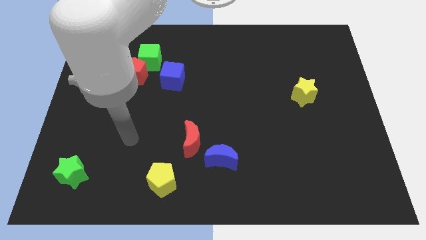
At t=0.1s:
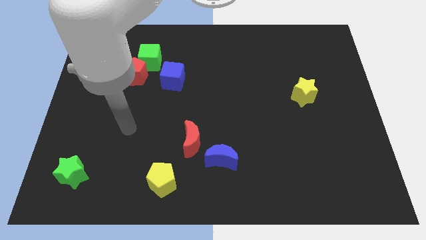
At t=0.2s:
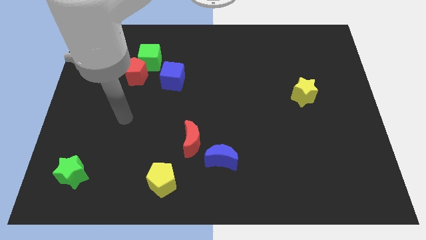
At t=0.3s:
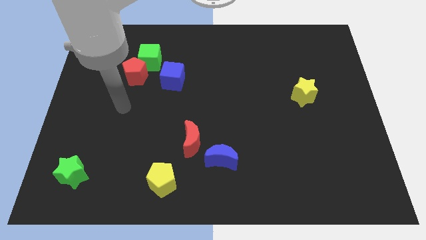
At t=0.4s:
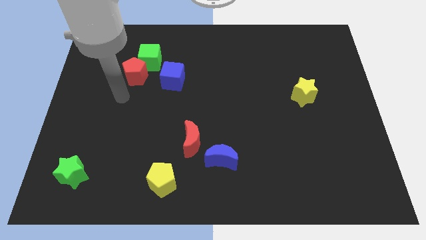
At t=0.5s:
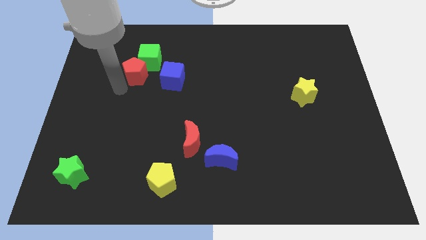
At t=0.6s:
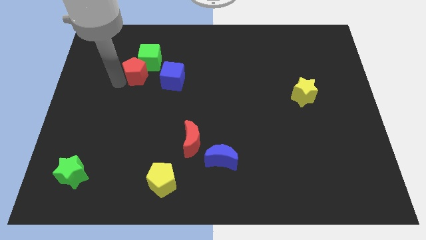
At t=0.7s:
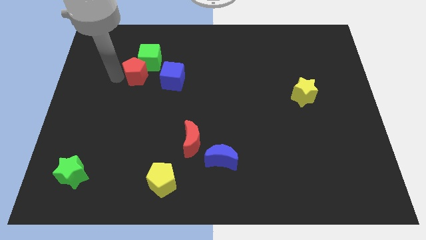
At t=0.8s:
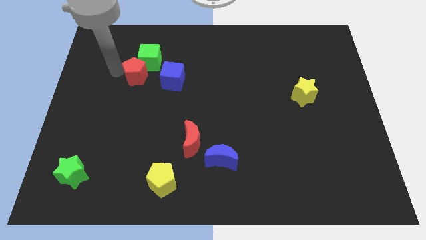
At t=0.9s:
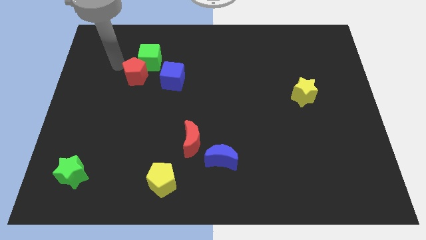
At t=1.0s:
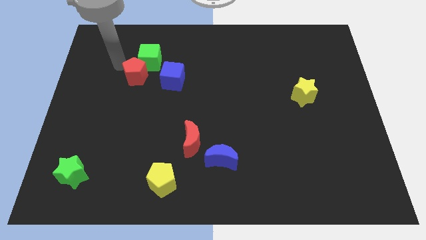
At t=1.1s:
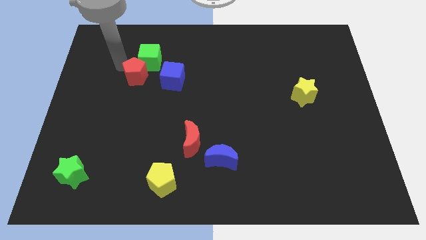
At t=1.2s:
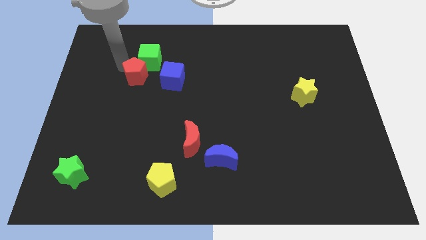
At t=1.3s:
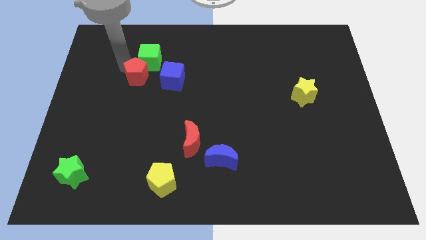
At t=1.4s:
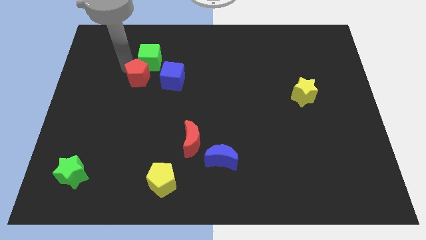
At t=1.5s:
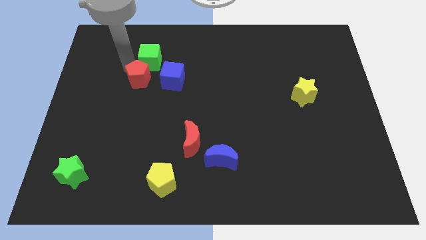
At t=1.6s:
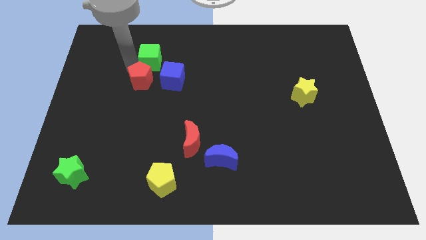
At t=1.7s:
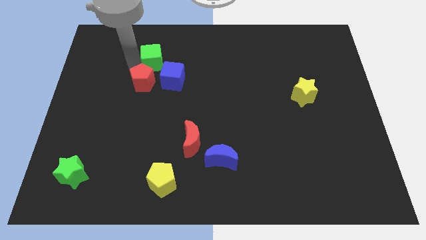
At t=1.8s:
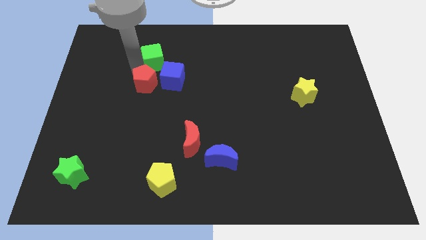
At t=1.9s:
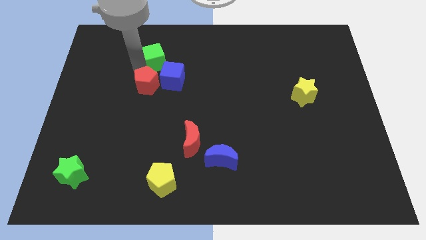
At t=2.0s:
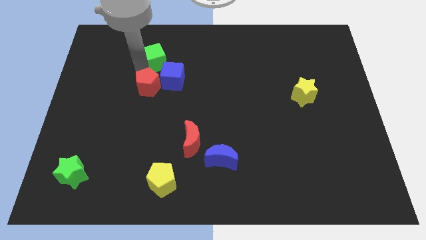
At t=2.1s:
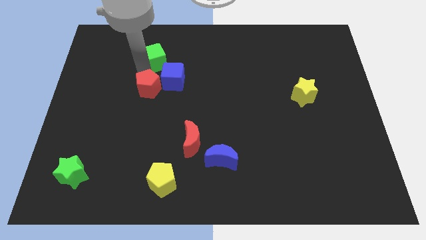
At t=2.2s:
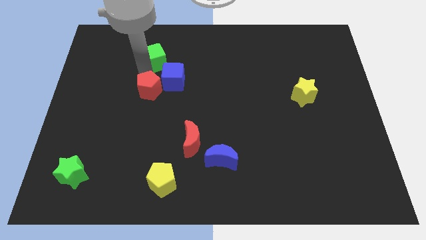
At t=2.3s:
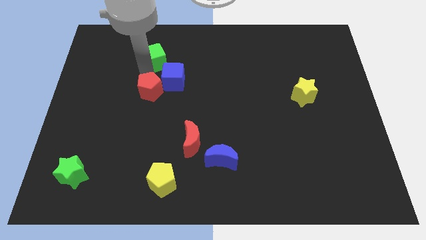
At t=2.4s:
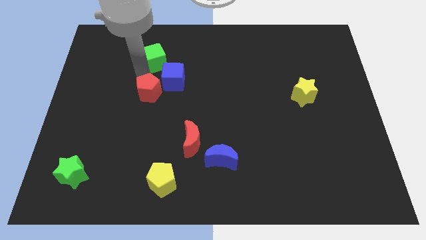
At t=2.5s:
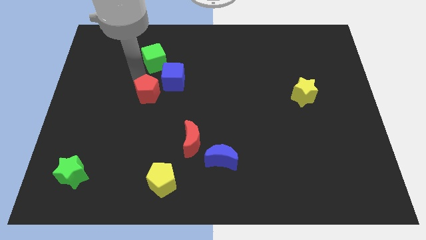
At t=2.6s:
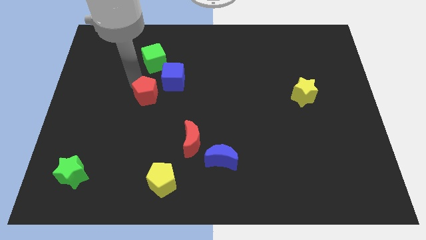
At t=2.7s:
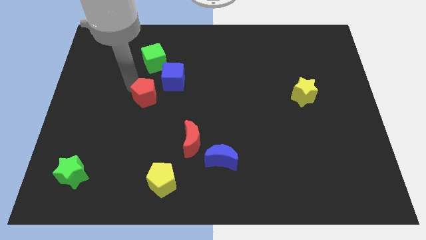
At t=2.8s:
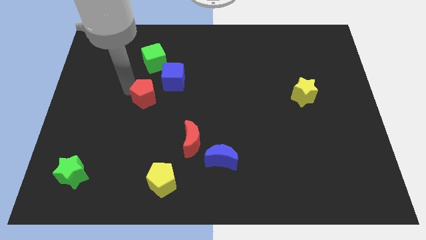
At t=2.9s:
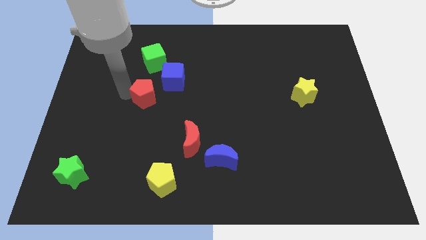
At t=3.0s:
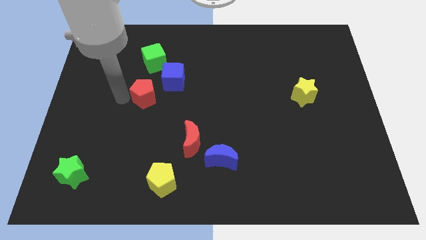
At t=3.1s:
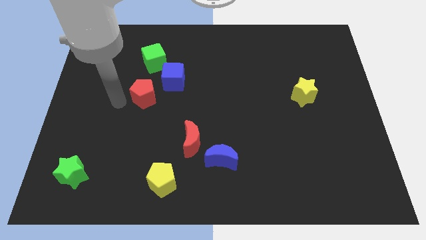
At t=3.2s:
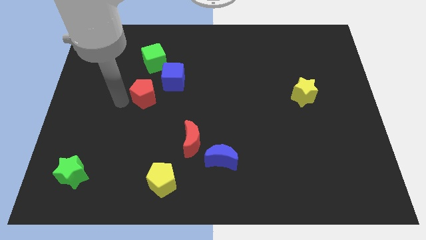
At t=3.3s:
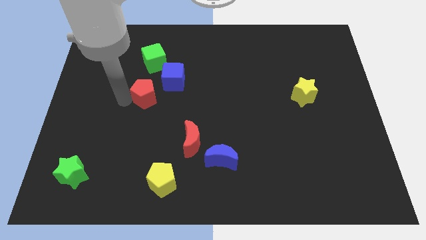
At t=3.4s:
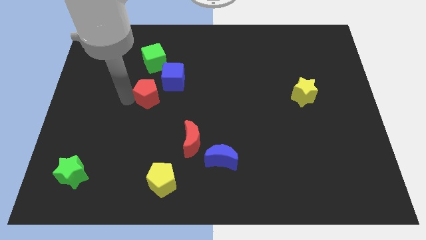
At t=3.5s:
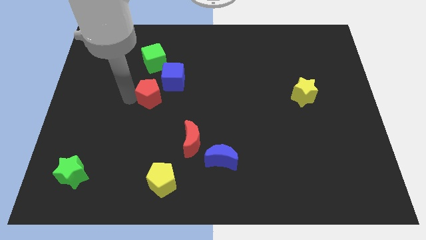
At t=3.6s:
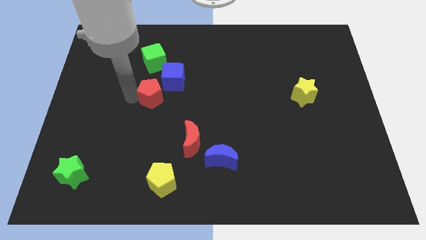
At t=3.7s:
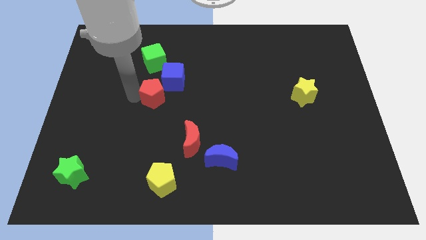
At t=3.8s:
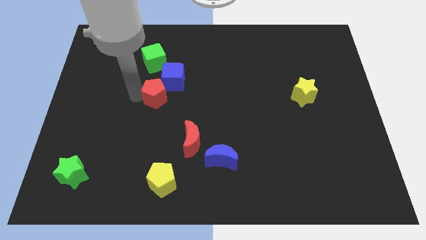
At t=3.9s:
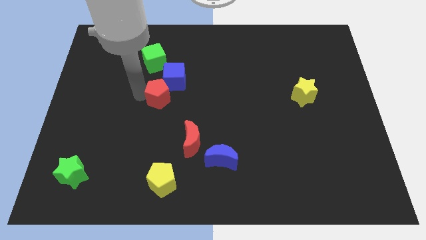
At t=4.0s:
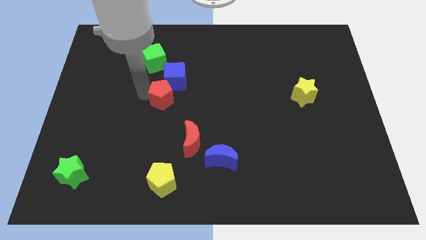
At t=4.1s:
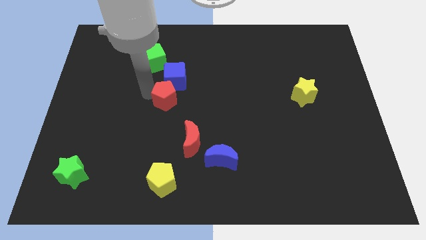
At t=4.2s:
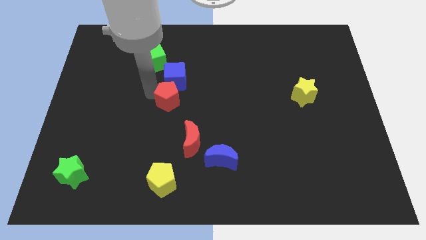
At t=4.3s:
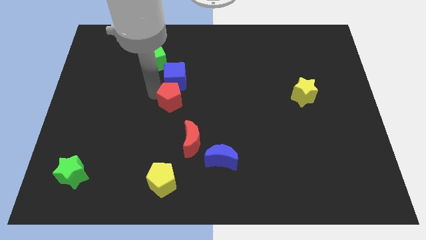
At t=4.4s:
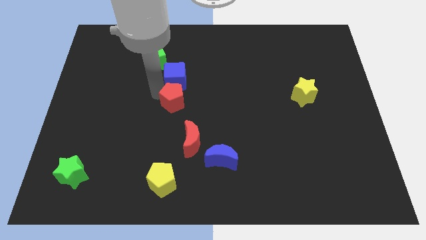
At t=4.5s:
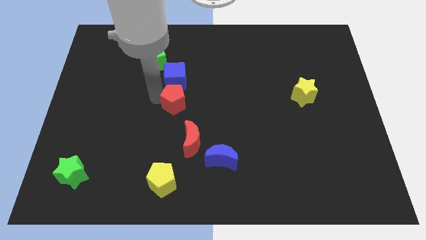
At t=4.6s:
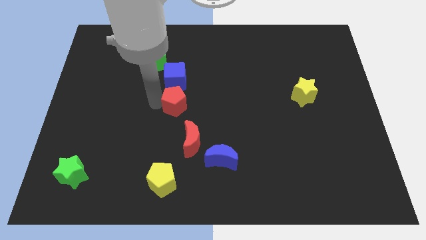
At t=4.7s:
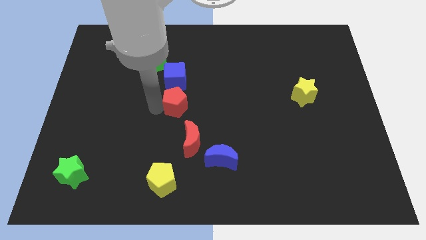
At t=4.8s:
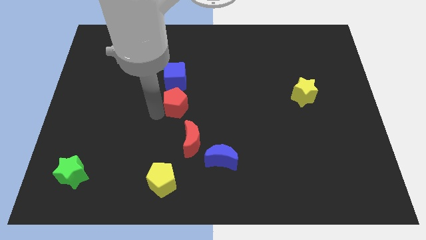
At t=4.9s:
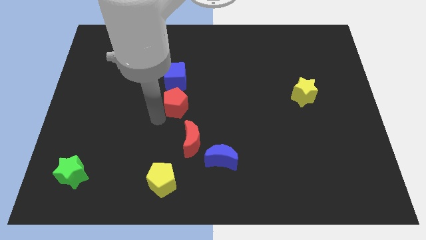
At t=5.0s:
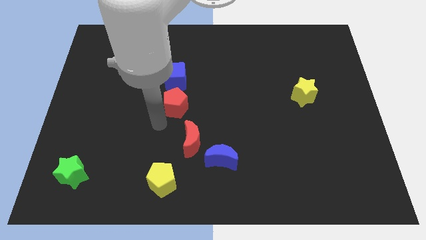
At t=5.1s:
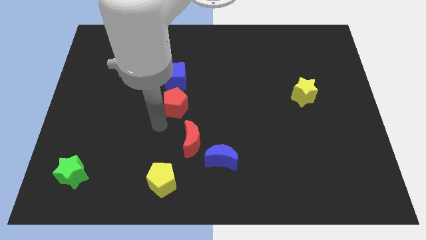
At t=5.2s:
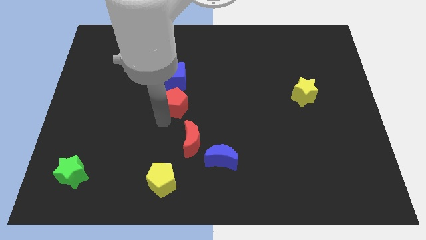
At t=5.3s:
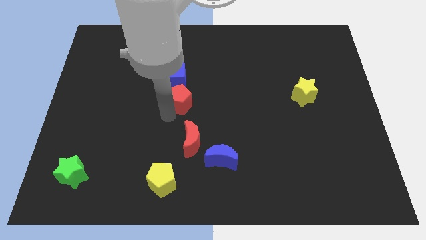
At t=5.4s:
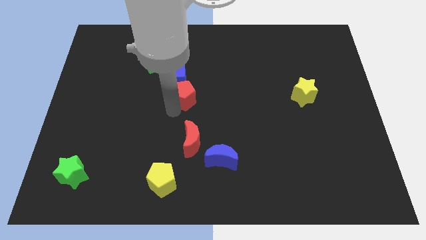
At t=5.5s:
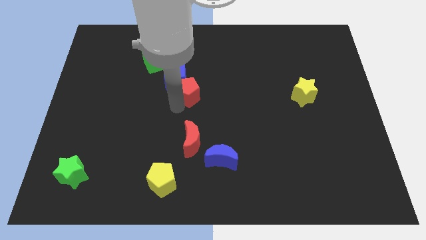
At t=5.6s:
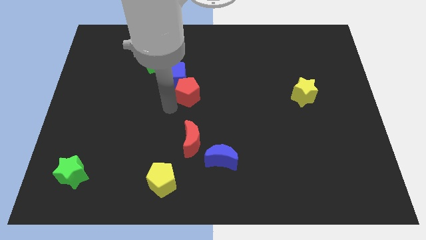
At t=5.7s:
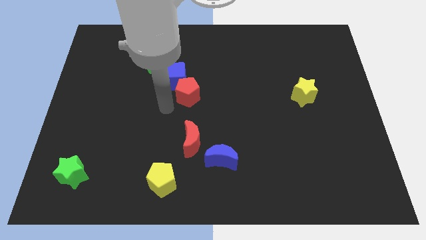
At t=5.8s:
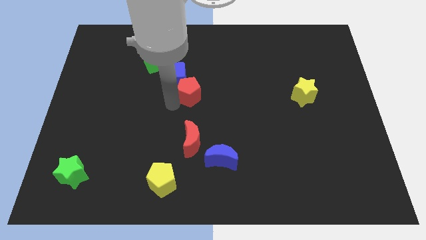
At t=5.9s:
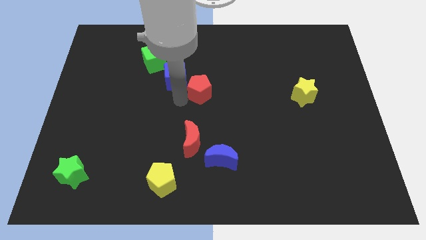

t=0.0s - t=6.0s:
push the red pentagon to the right of the blue cube
